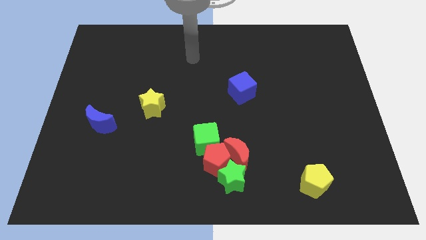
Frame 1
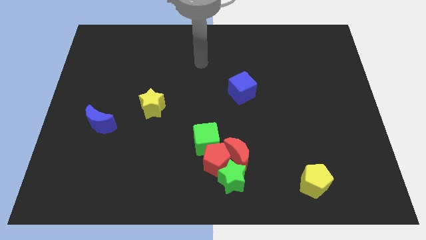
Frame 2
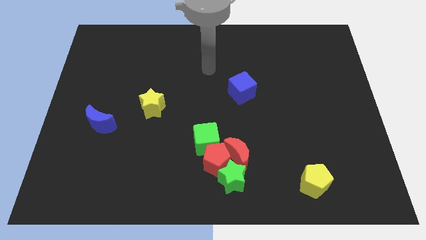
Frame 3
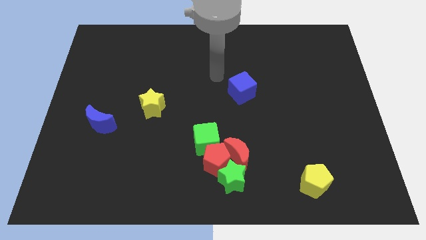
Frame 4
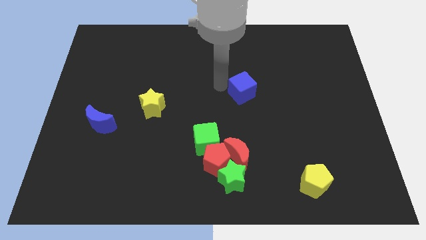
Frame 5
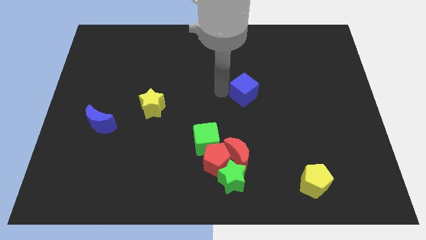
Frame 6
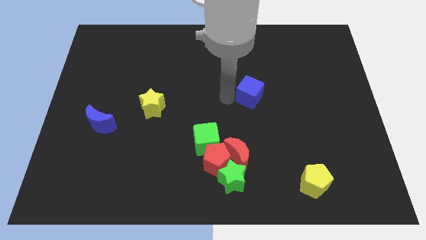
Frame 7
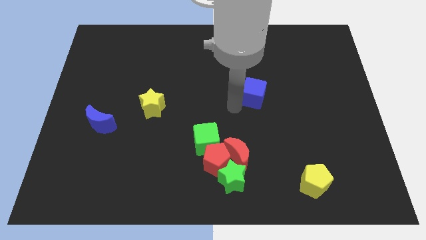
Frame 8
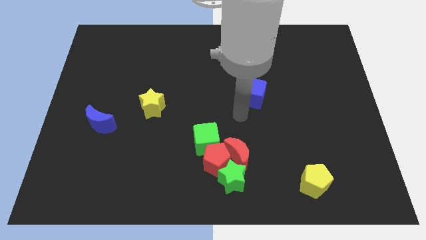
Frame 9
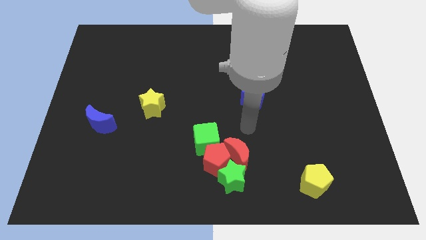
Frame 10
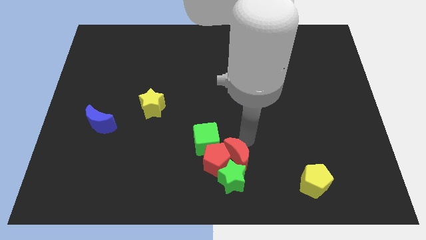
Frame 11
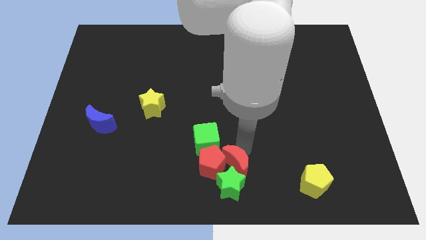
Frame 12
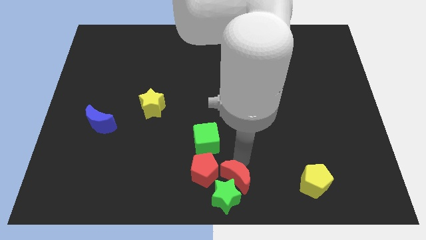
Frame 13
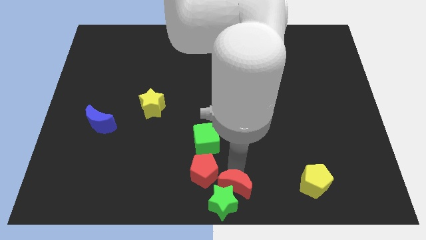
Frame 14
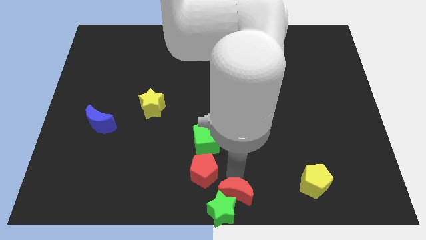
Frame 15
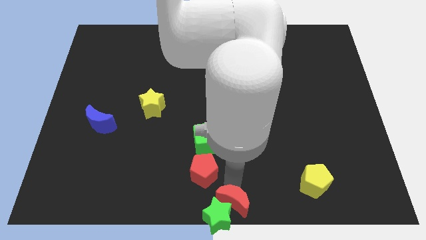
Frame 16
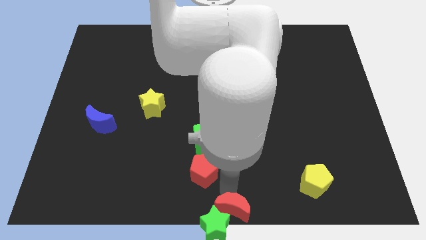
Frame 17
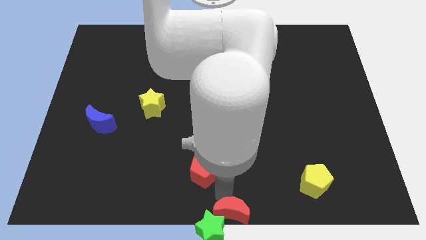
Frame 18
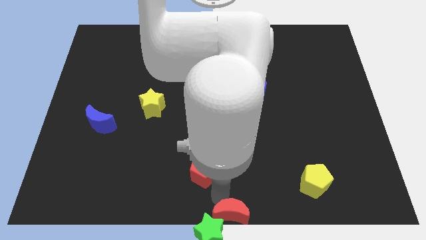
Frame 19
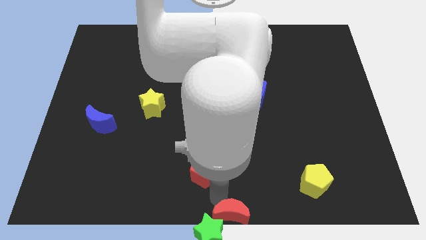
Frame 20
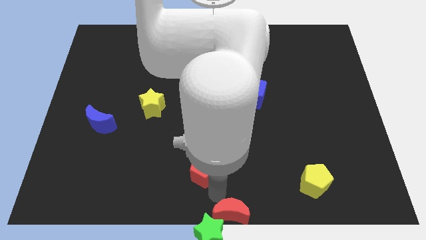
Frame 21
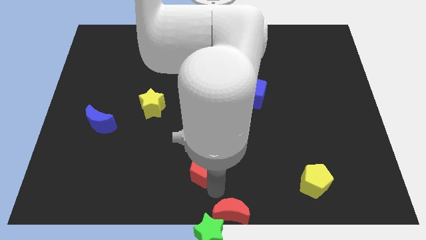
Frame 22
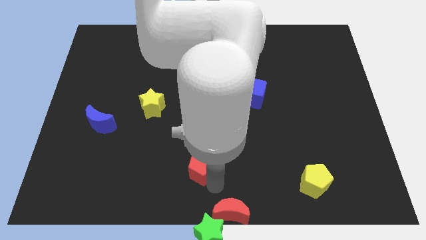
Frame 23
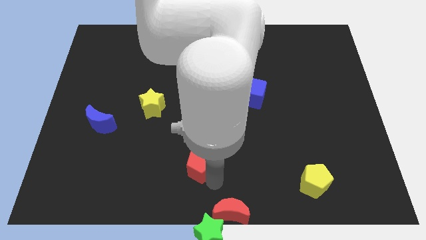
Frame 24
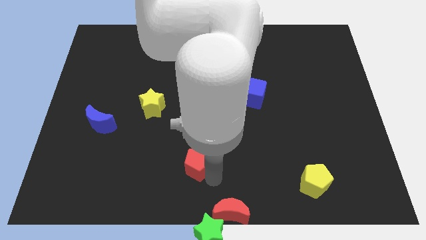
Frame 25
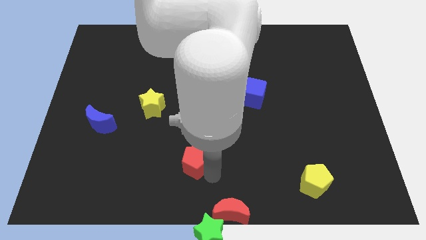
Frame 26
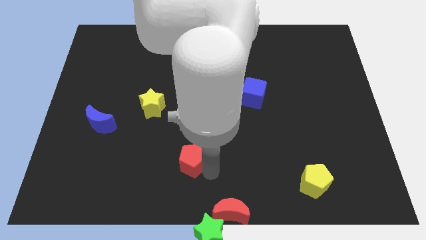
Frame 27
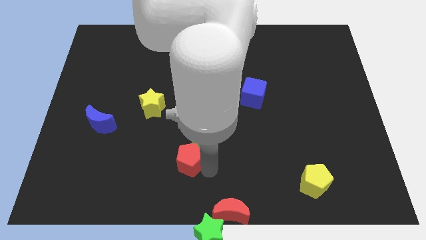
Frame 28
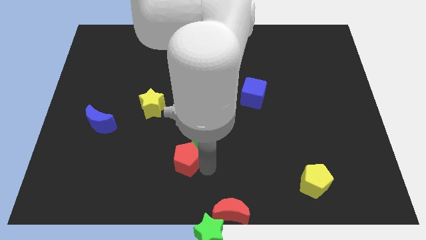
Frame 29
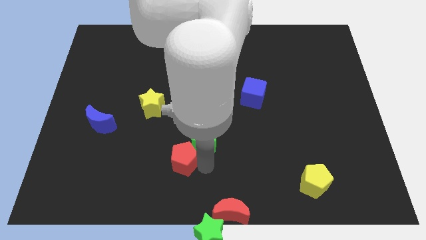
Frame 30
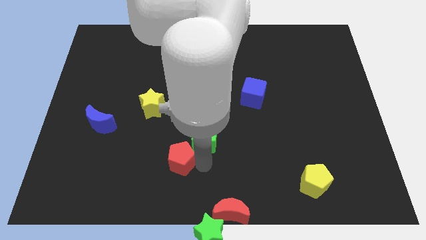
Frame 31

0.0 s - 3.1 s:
move the red pentagon away from the group

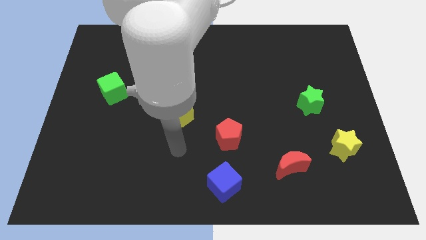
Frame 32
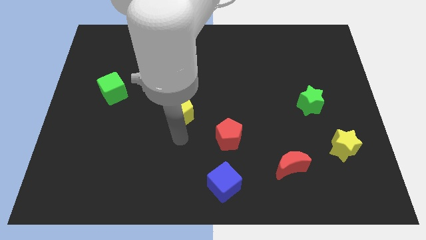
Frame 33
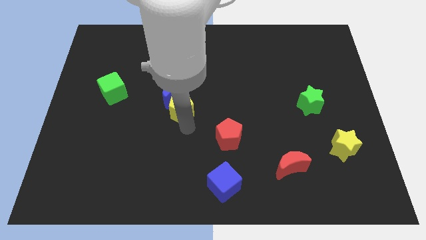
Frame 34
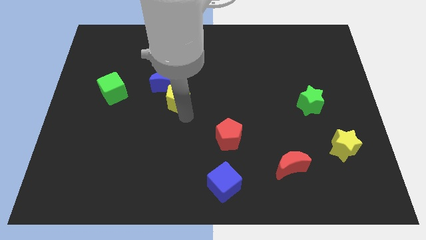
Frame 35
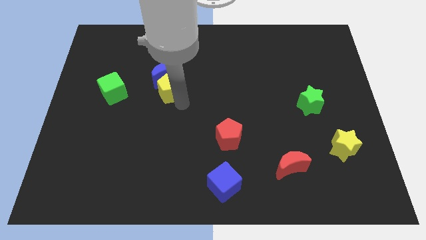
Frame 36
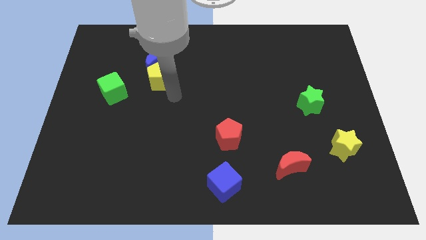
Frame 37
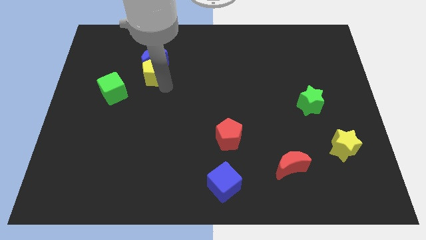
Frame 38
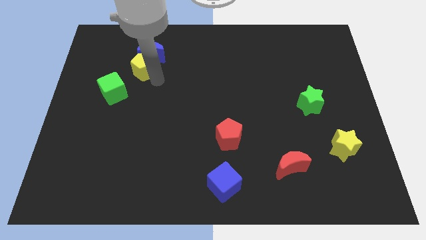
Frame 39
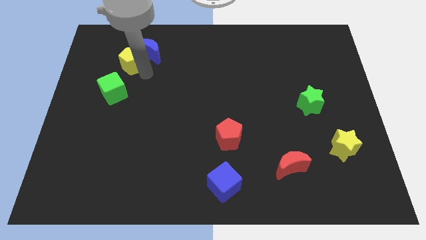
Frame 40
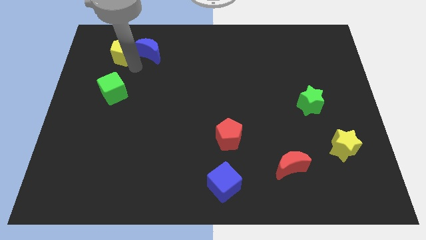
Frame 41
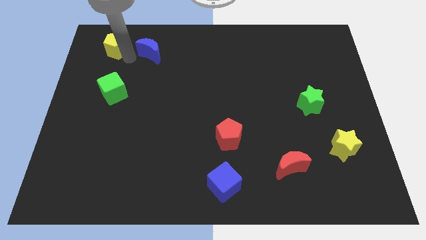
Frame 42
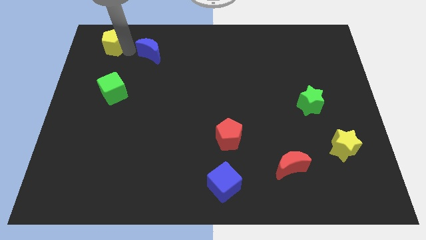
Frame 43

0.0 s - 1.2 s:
move the blue moon away from the yellow pentagon

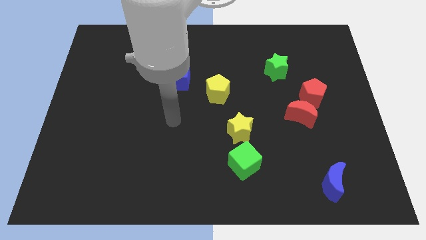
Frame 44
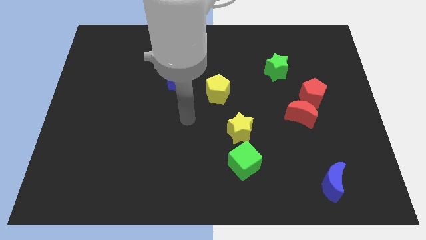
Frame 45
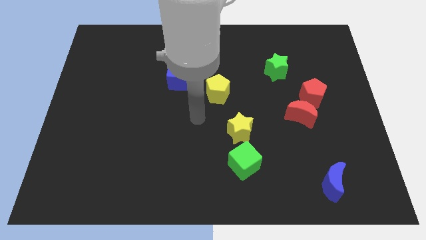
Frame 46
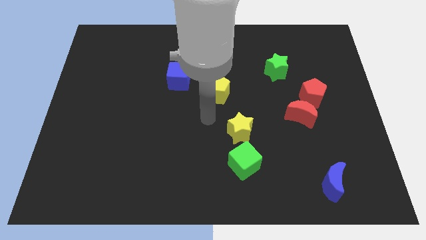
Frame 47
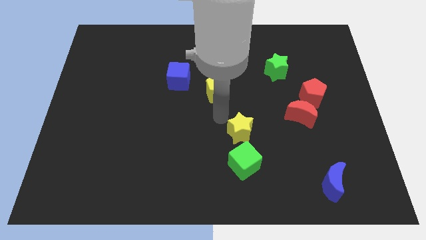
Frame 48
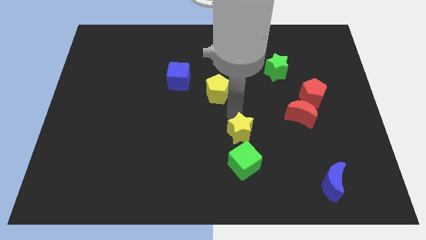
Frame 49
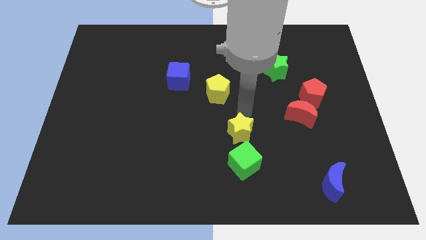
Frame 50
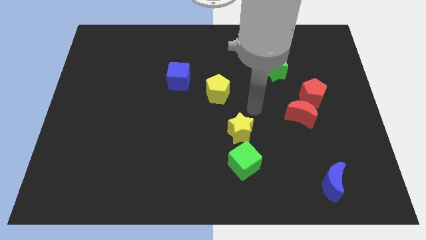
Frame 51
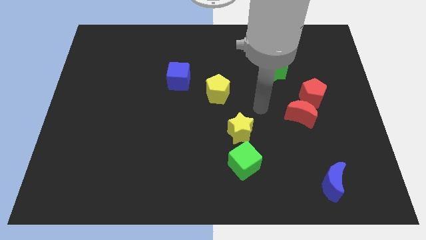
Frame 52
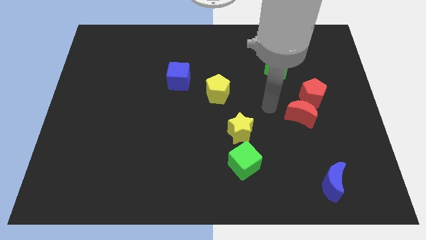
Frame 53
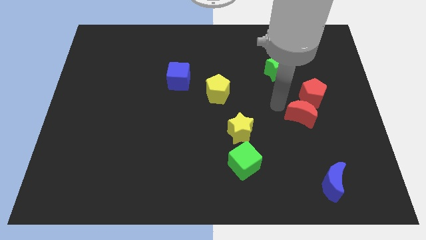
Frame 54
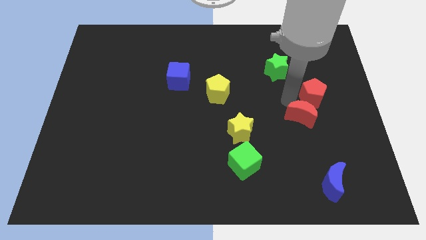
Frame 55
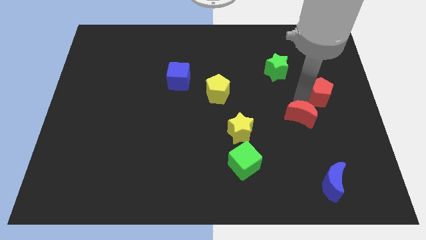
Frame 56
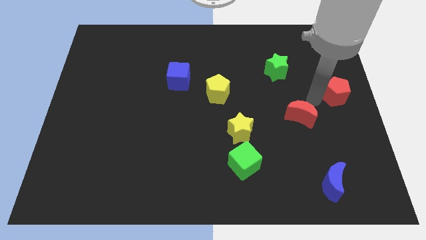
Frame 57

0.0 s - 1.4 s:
separate the red moon from the red pentagon

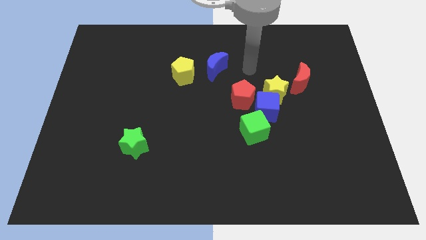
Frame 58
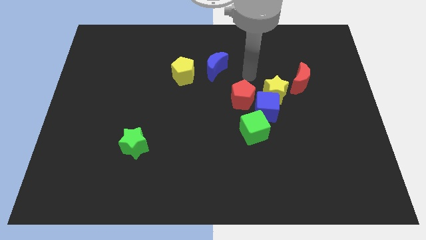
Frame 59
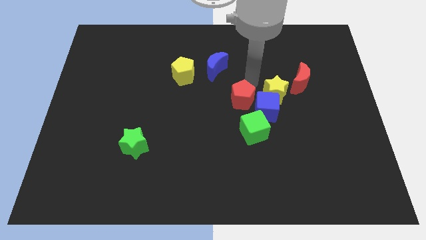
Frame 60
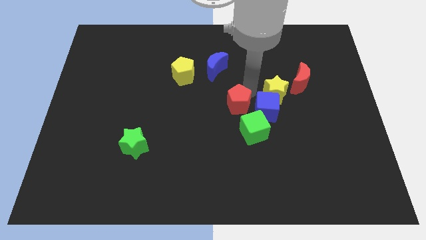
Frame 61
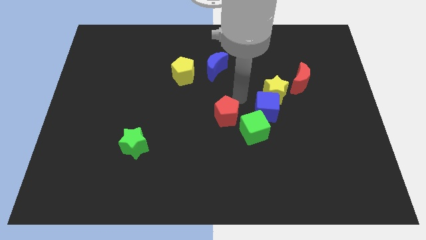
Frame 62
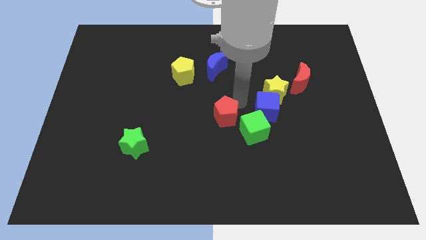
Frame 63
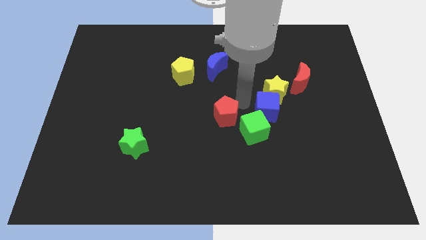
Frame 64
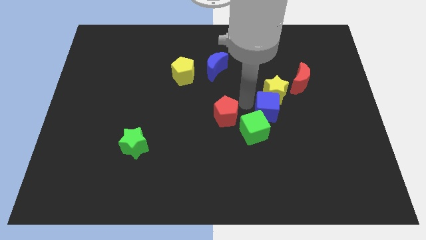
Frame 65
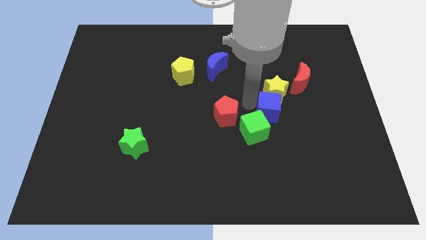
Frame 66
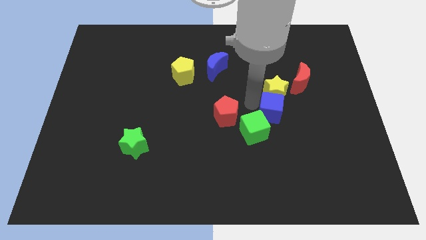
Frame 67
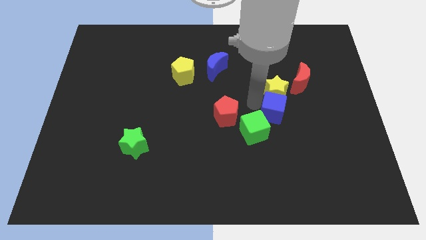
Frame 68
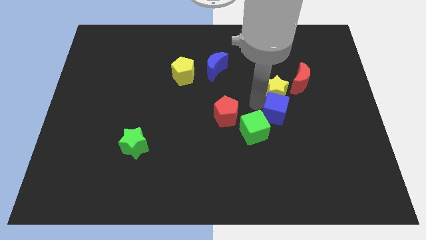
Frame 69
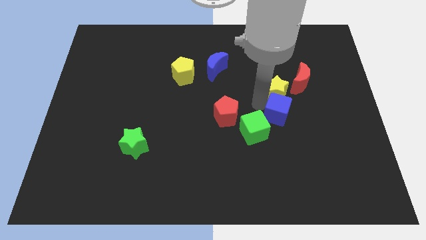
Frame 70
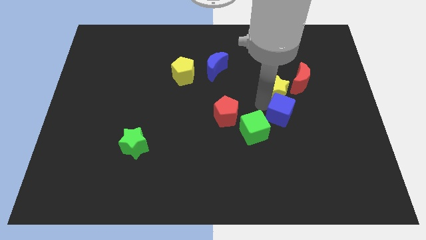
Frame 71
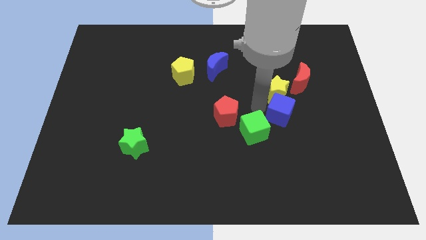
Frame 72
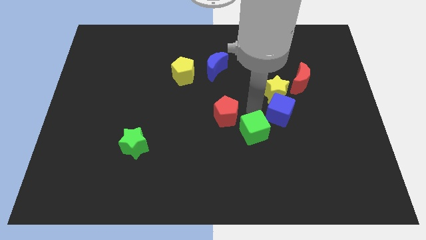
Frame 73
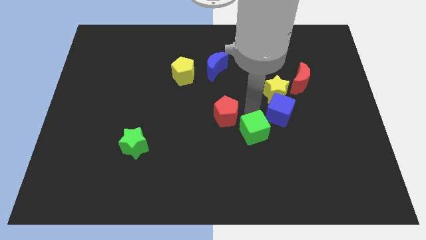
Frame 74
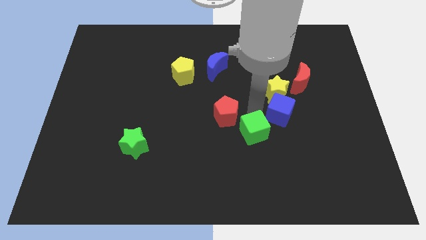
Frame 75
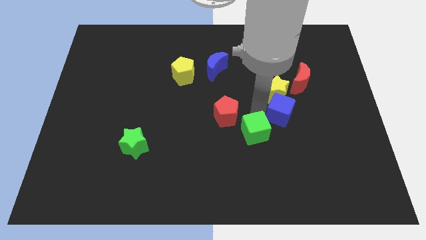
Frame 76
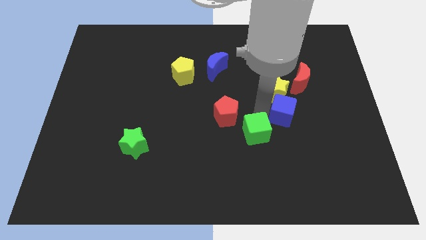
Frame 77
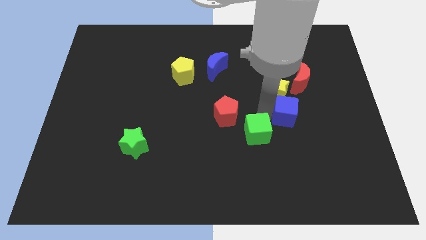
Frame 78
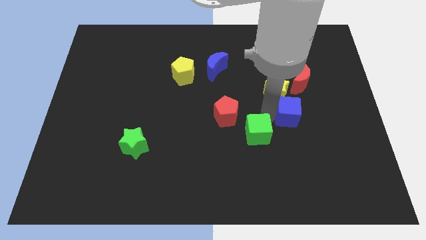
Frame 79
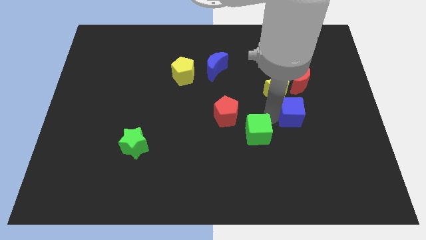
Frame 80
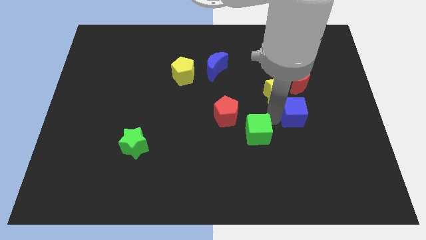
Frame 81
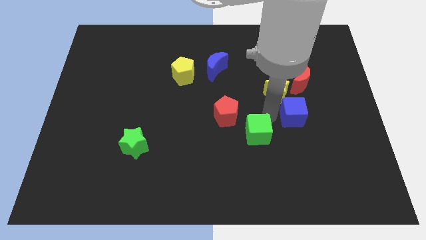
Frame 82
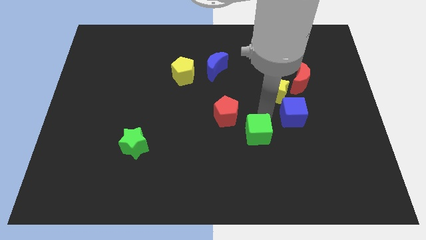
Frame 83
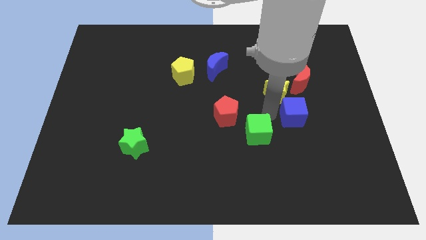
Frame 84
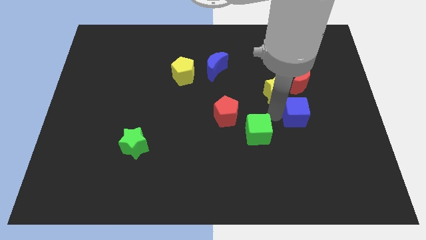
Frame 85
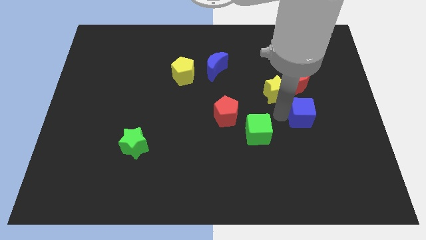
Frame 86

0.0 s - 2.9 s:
move the blue cube away from the yellow star, red pentagon, and green cube

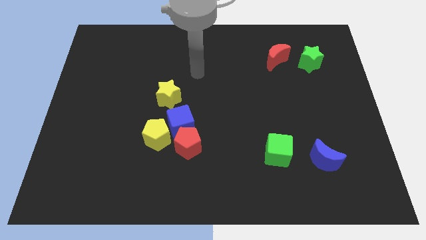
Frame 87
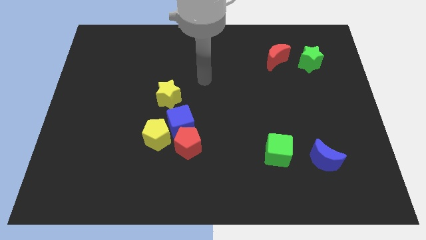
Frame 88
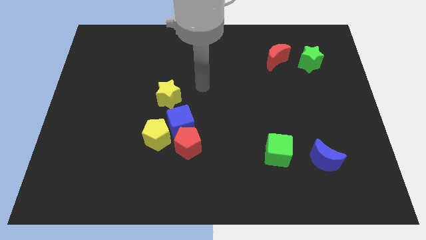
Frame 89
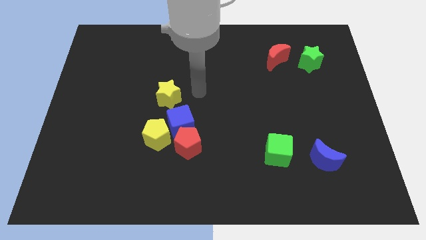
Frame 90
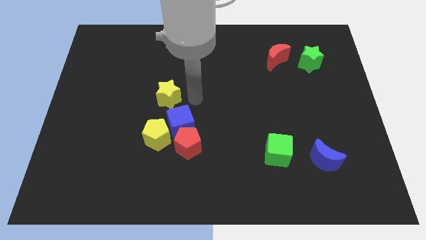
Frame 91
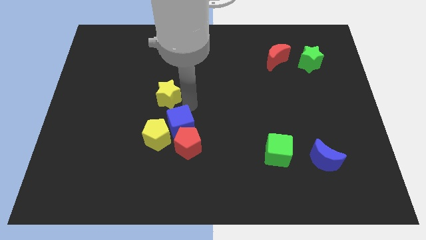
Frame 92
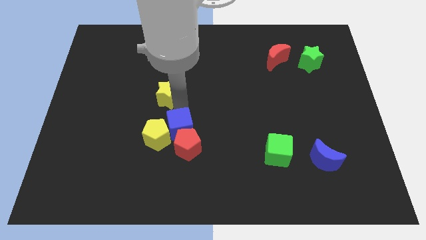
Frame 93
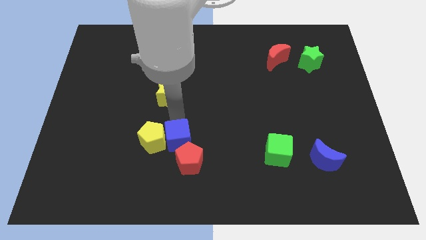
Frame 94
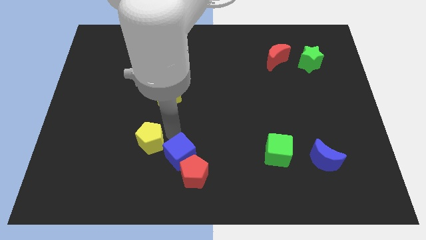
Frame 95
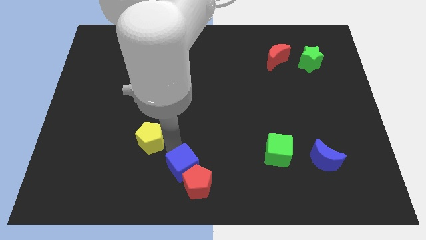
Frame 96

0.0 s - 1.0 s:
pull the red pentagon apart from the blue cube and yellow pentagon
